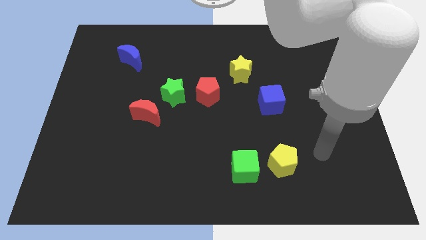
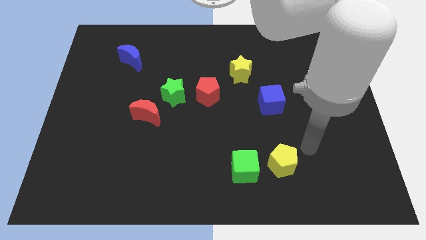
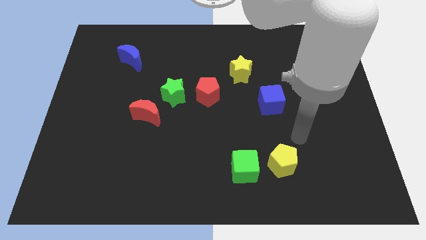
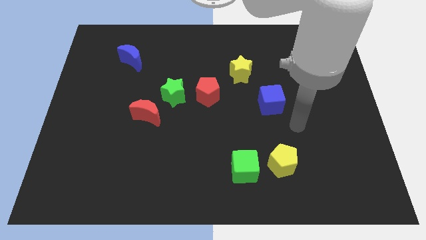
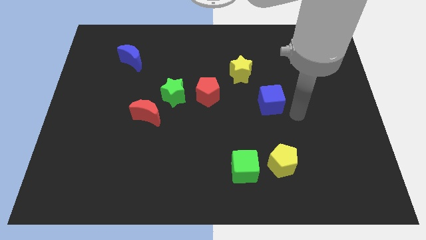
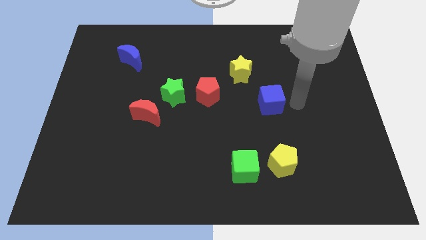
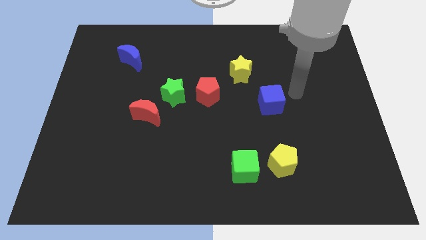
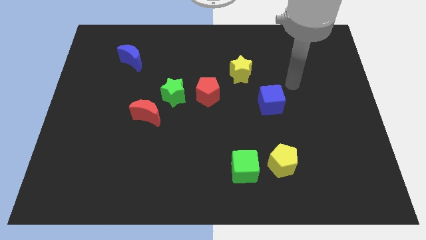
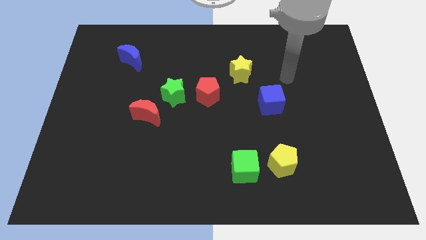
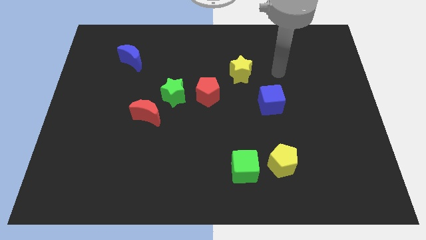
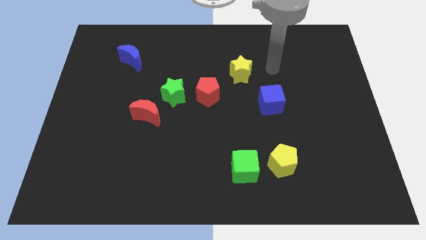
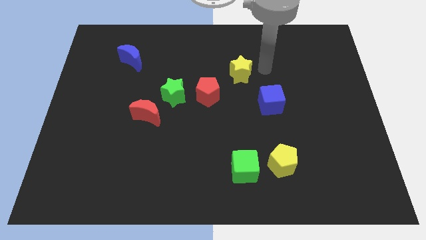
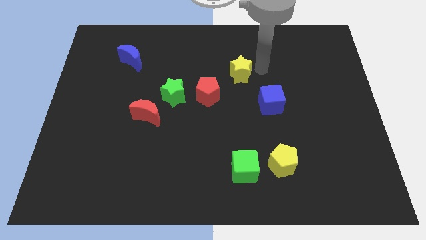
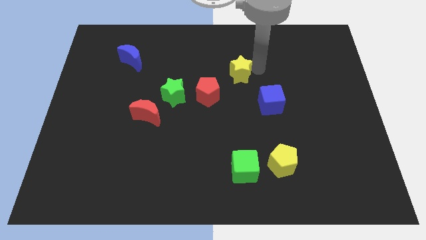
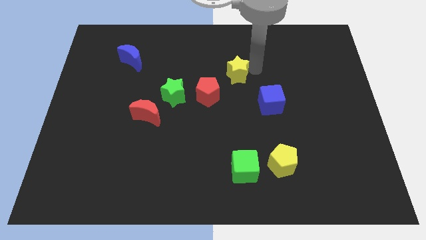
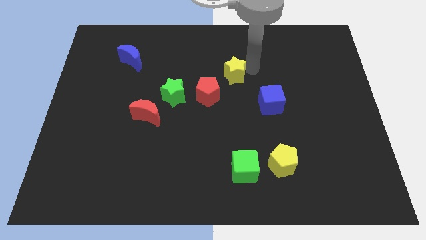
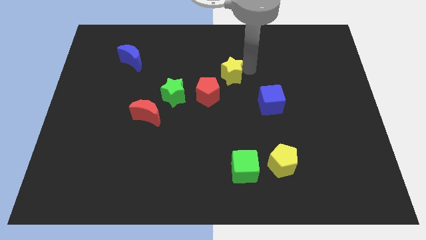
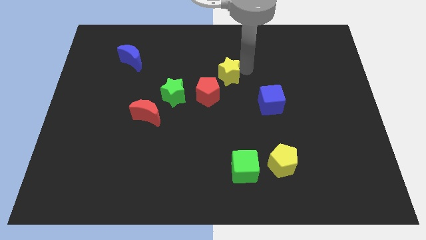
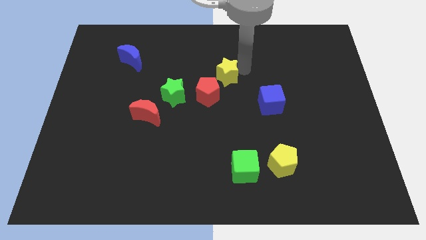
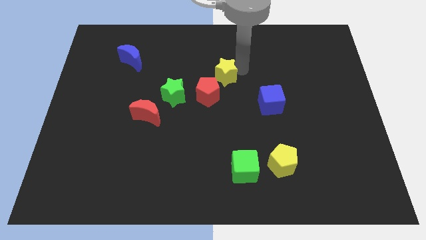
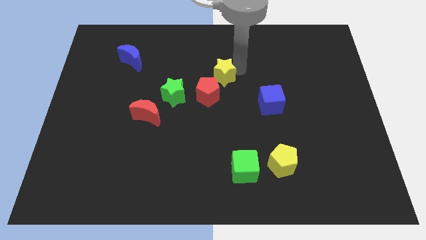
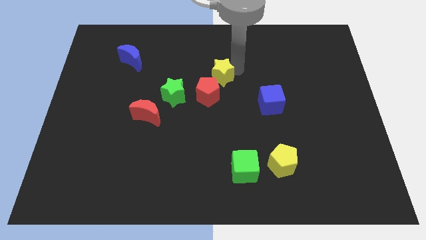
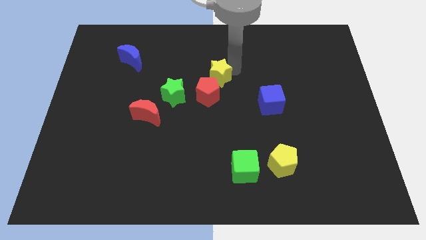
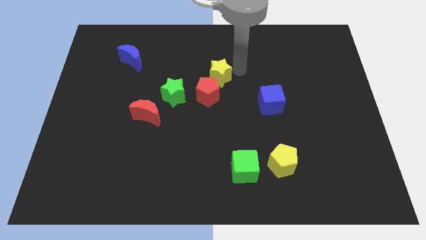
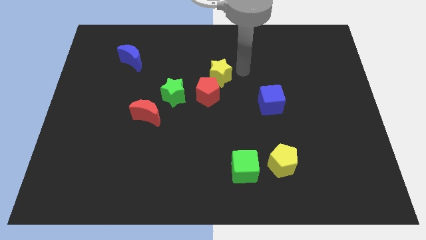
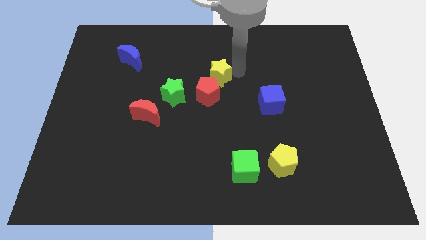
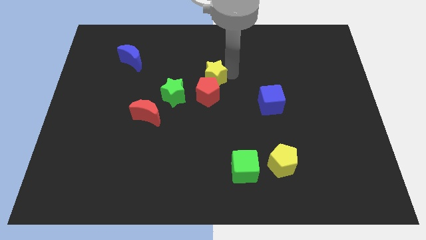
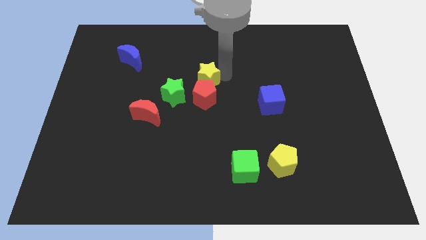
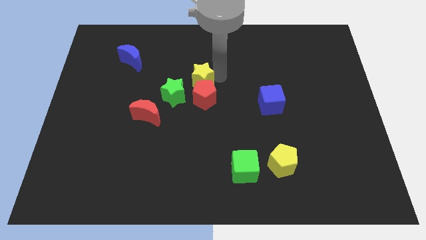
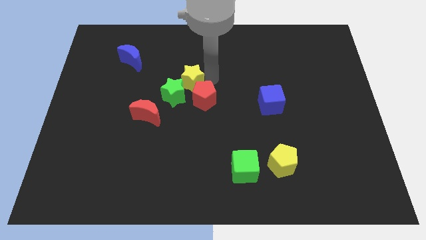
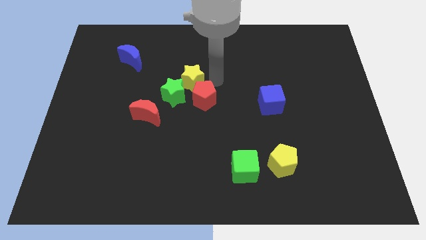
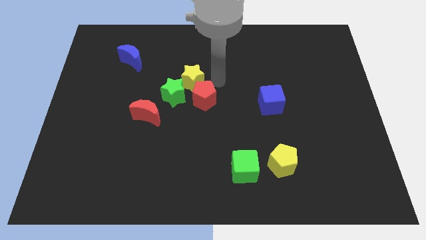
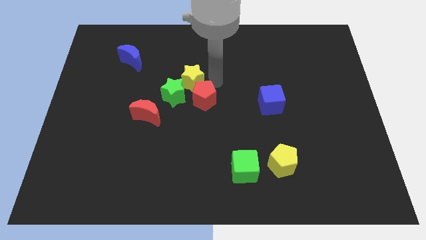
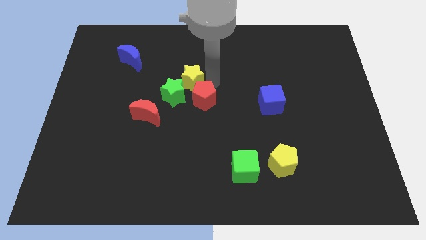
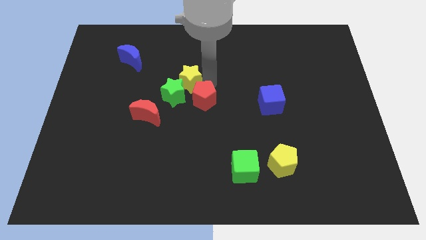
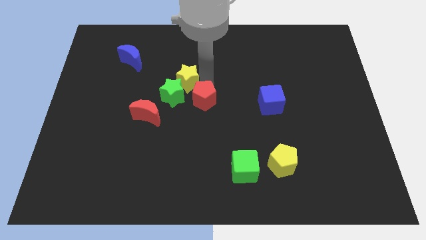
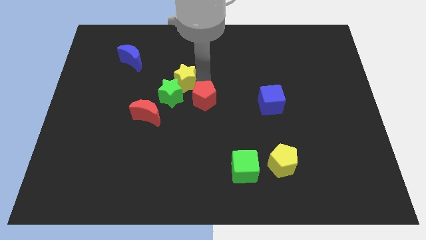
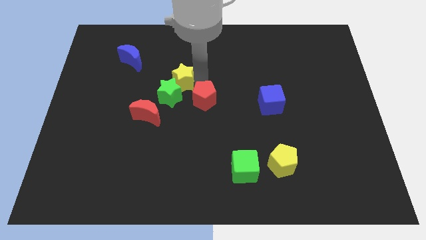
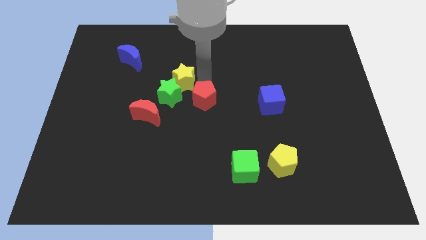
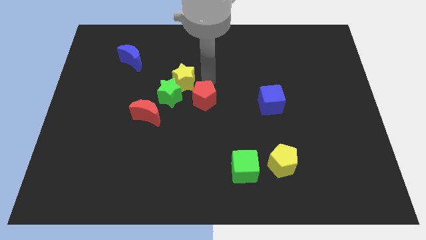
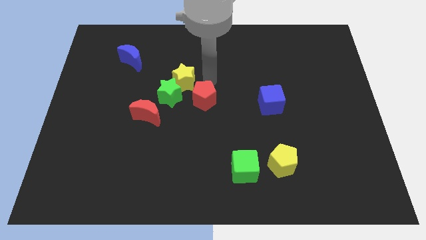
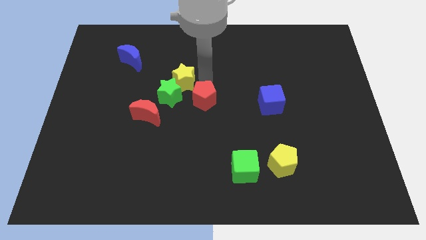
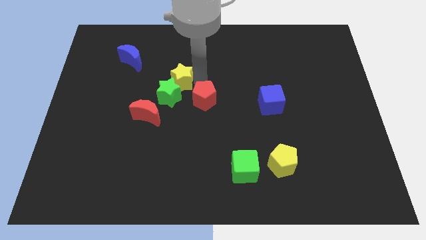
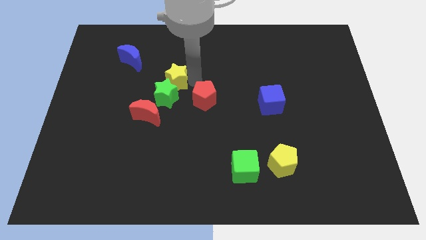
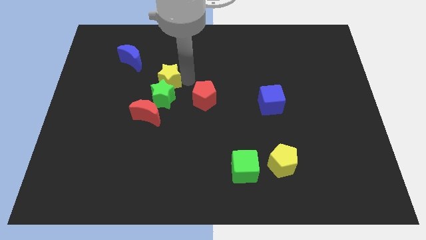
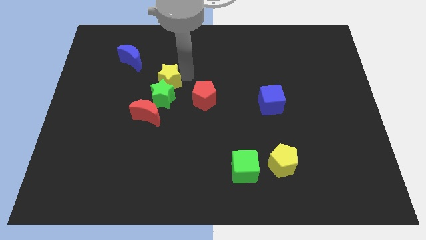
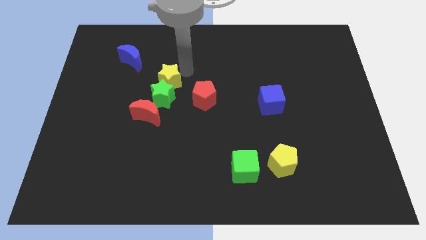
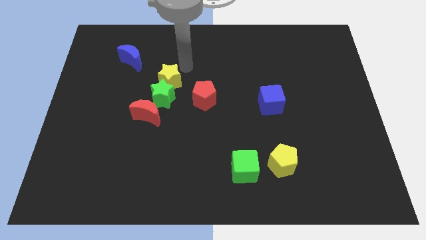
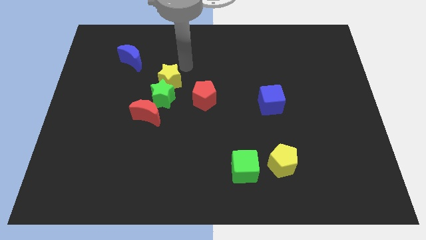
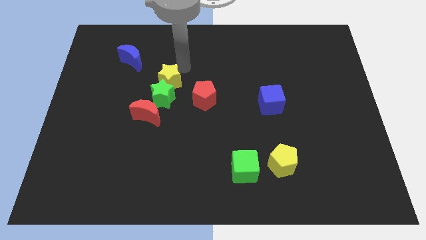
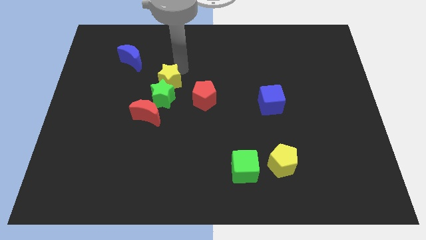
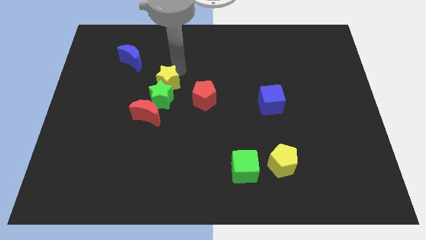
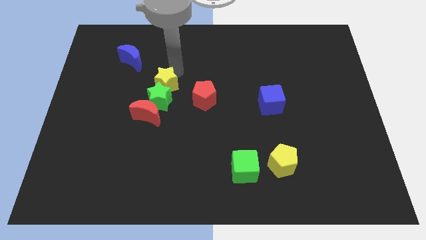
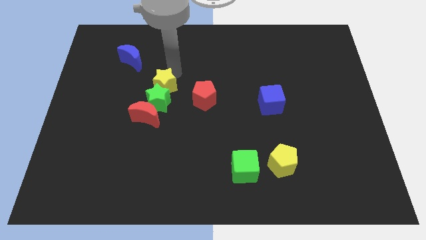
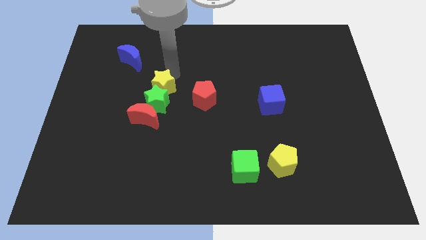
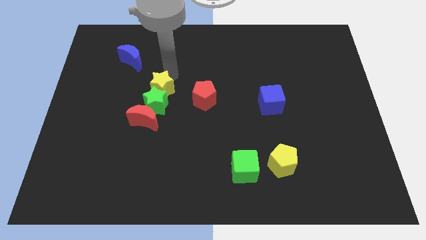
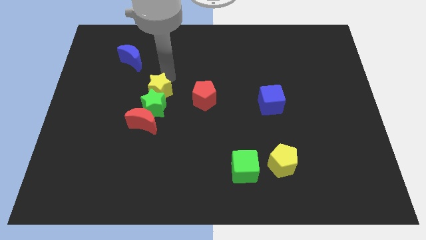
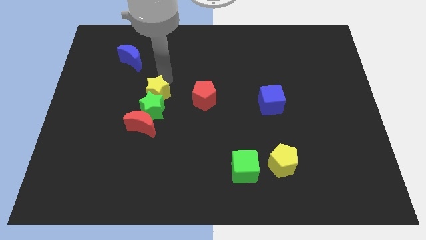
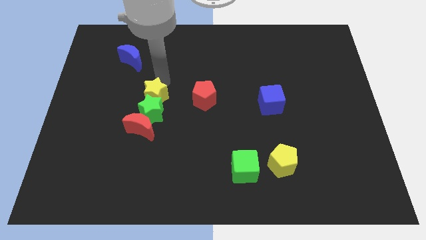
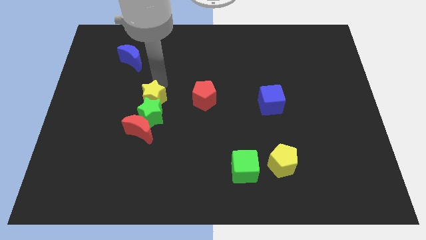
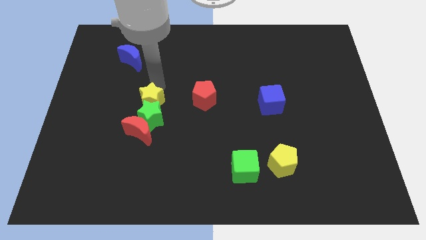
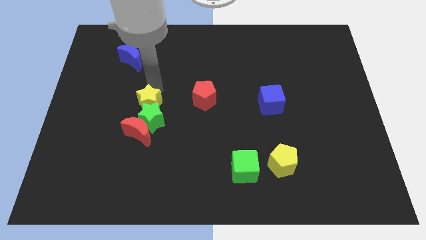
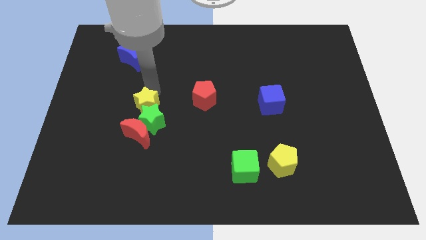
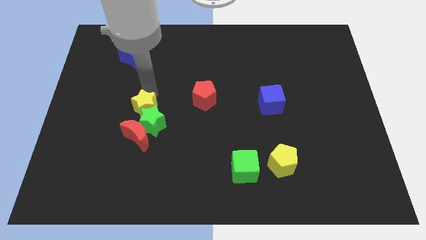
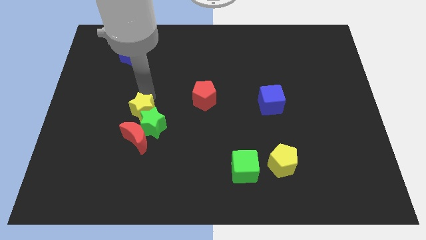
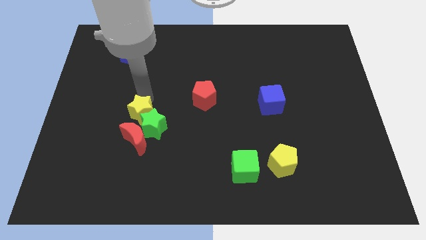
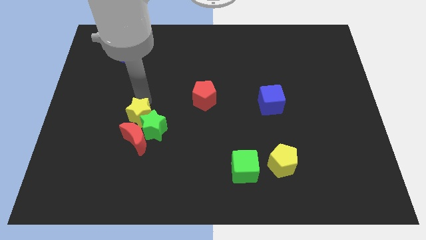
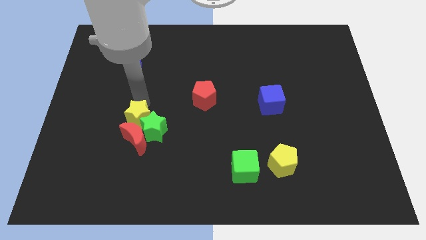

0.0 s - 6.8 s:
slide the yellow star next to the red moon
